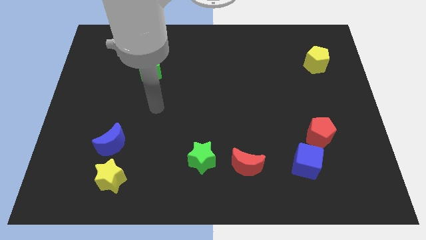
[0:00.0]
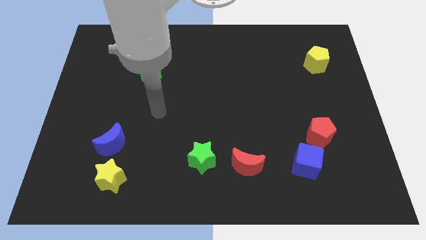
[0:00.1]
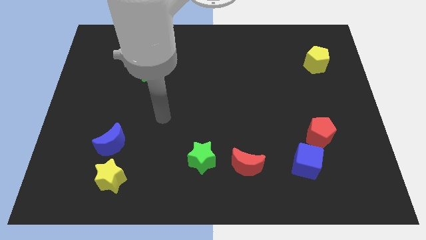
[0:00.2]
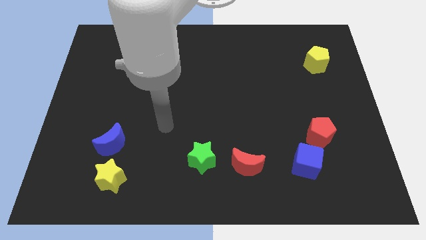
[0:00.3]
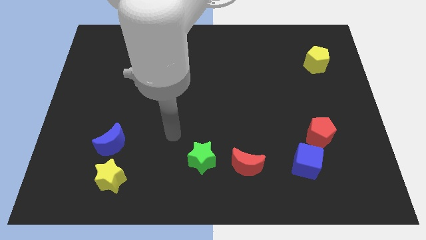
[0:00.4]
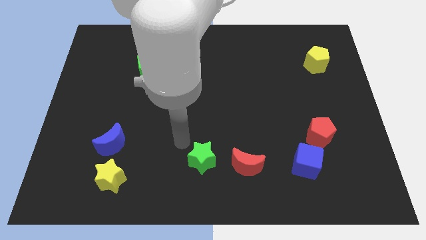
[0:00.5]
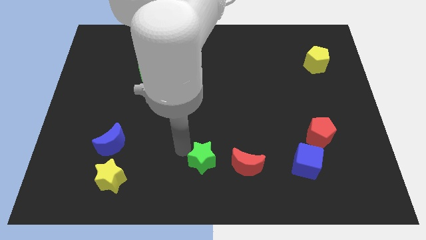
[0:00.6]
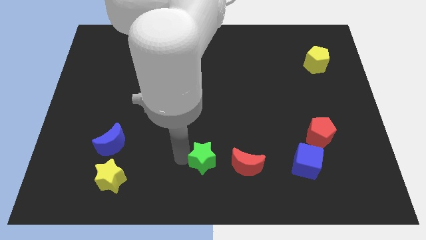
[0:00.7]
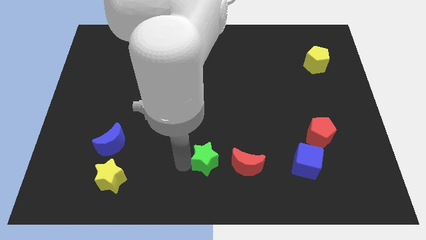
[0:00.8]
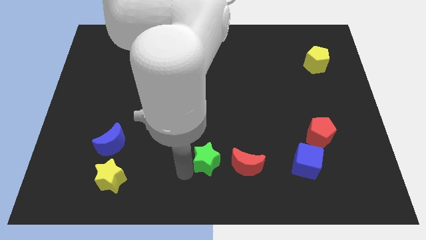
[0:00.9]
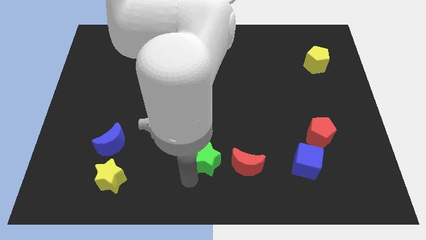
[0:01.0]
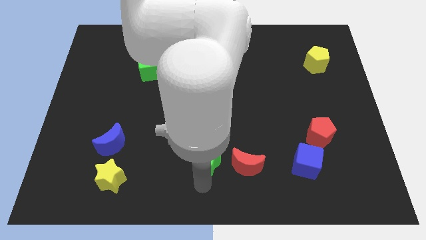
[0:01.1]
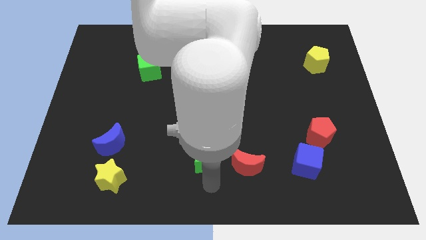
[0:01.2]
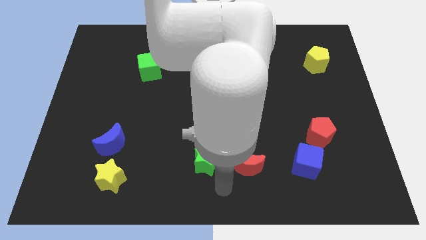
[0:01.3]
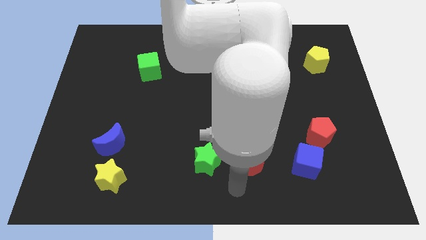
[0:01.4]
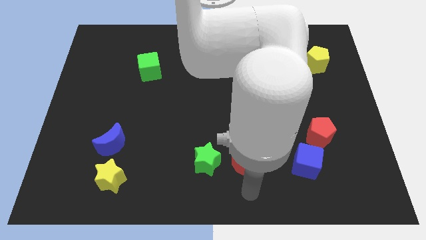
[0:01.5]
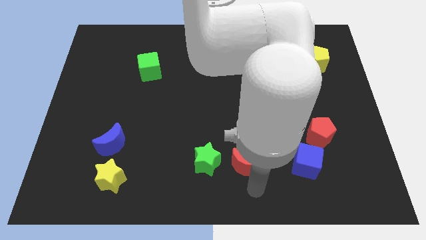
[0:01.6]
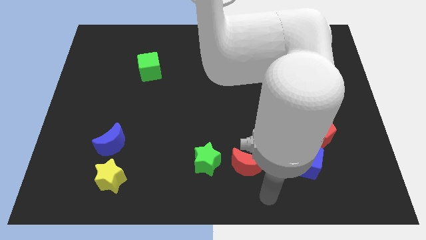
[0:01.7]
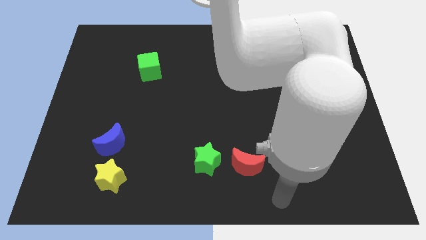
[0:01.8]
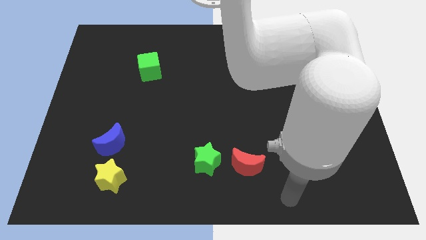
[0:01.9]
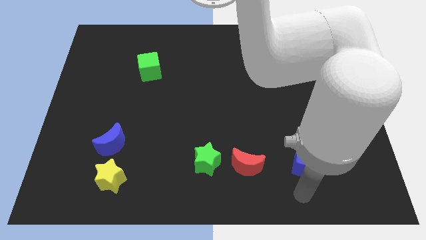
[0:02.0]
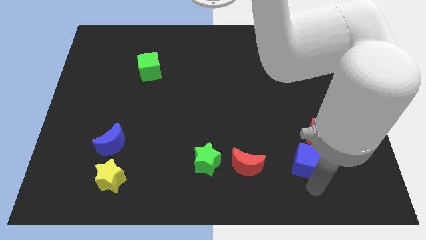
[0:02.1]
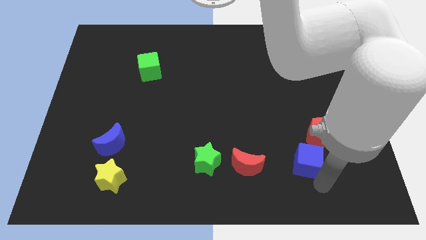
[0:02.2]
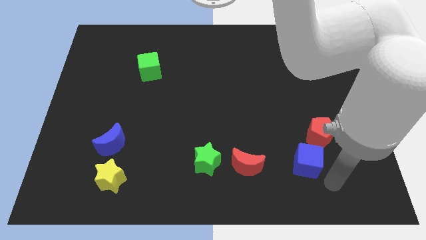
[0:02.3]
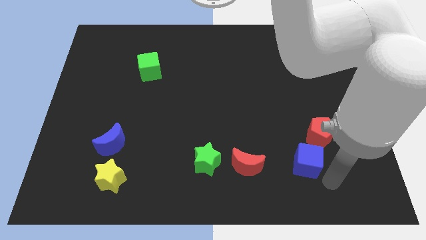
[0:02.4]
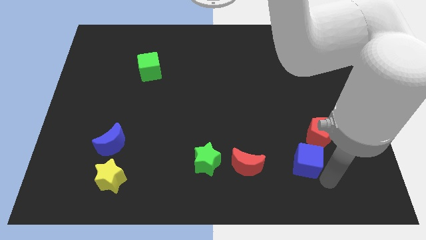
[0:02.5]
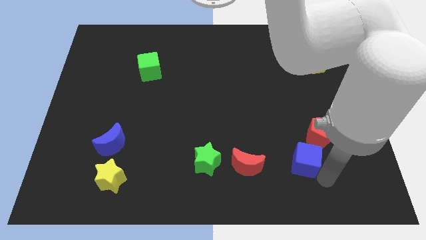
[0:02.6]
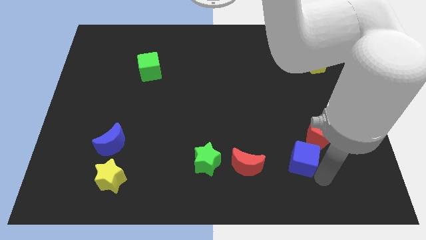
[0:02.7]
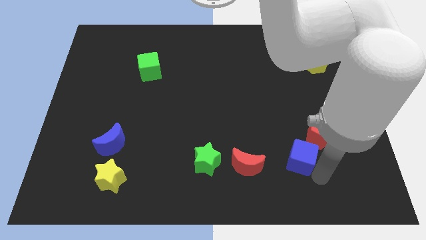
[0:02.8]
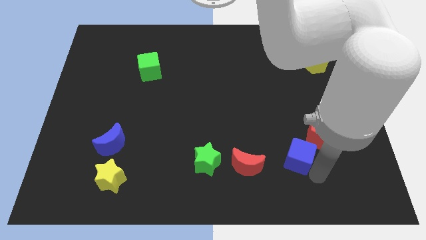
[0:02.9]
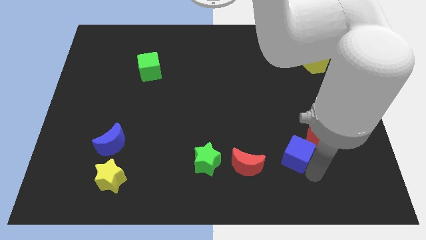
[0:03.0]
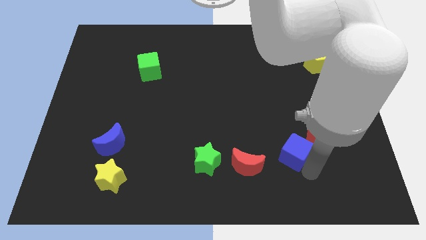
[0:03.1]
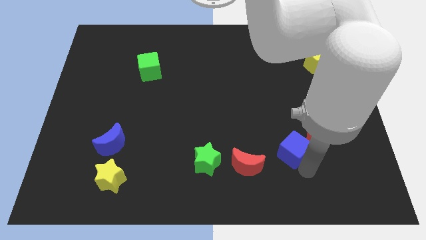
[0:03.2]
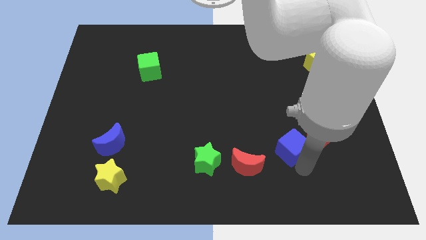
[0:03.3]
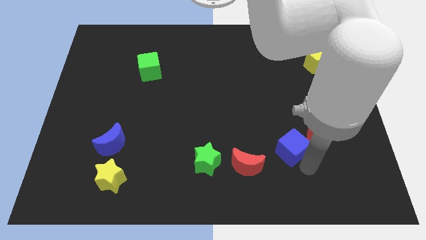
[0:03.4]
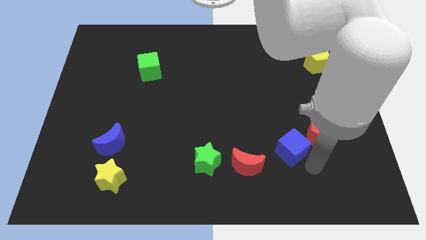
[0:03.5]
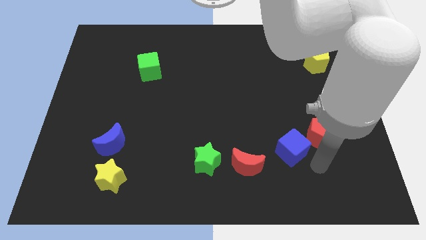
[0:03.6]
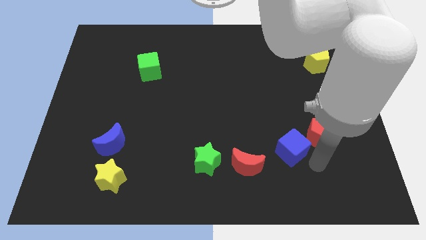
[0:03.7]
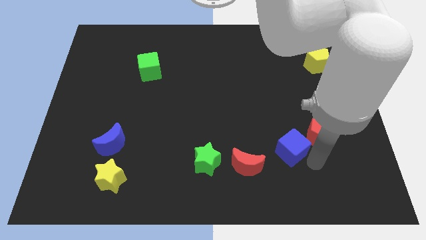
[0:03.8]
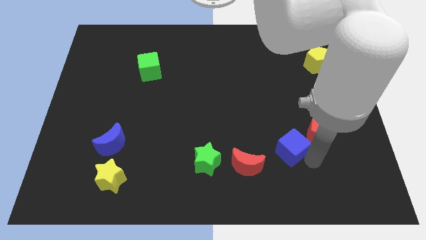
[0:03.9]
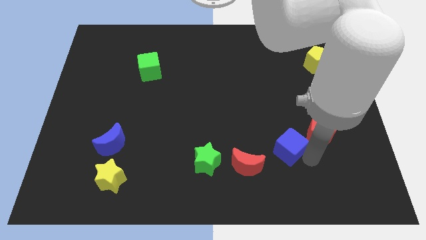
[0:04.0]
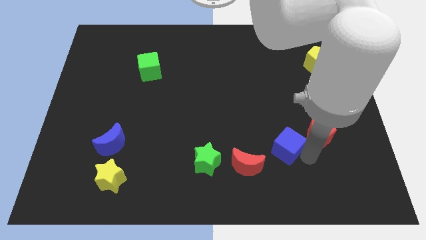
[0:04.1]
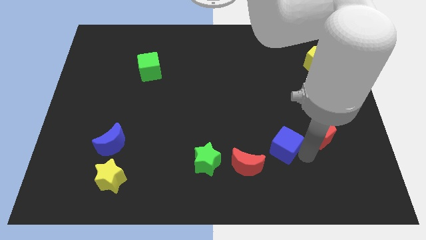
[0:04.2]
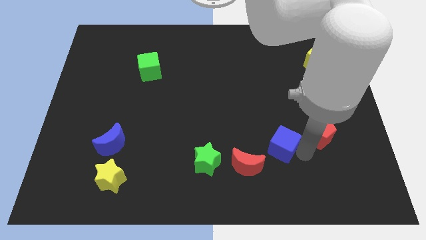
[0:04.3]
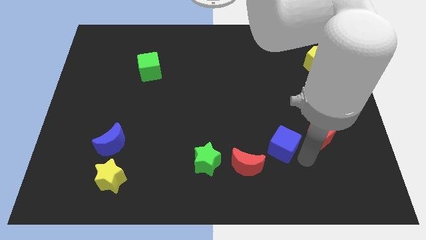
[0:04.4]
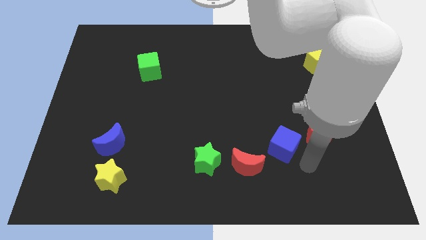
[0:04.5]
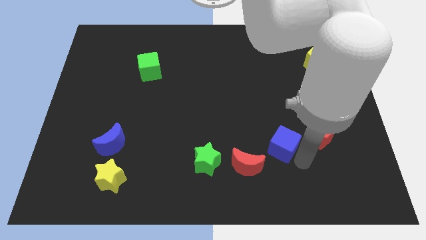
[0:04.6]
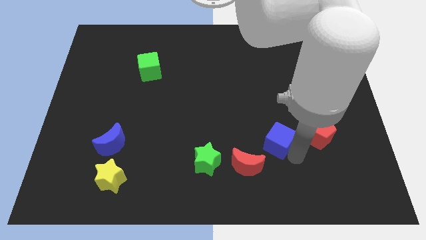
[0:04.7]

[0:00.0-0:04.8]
push the blue cube a little diagonally upwards and left

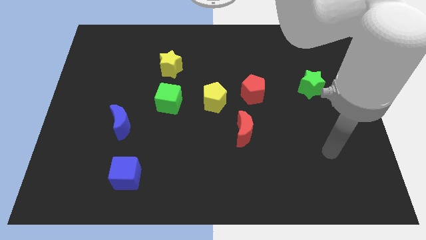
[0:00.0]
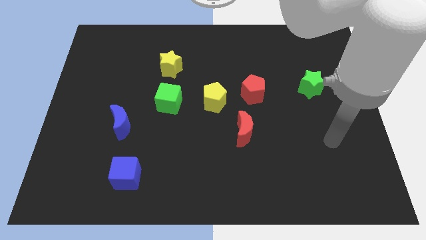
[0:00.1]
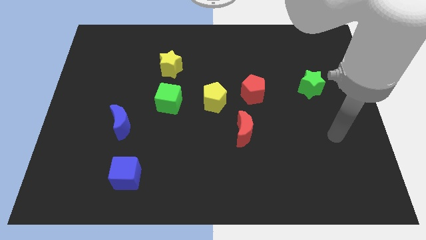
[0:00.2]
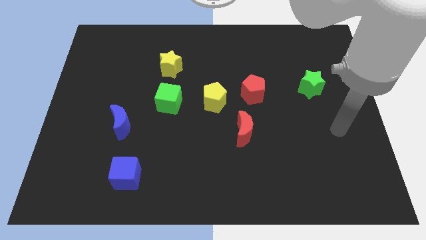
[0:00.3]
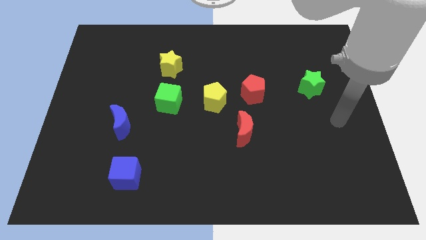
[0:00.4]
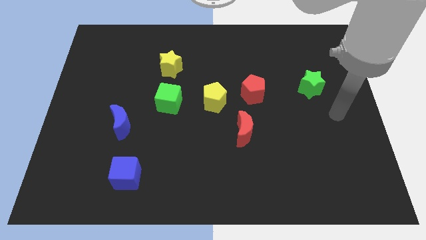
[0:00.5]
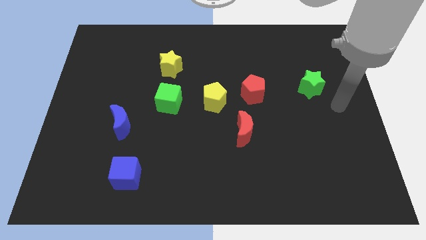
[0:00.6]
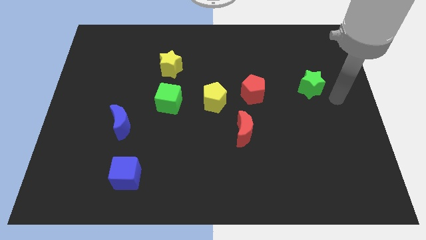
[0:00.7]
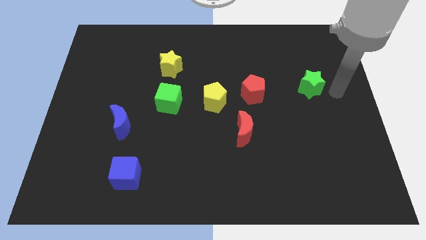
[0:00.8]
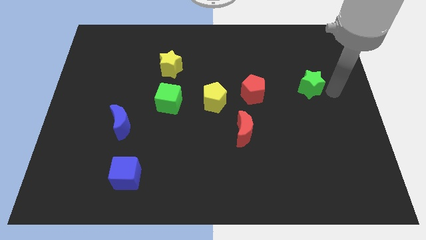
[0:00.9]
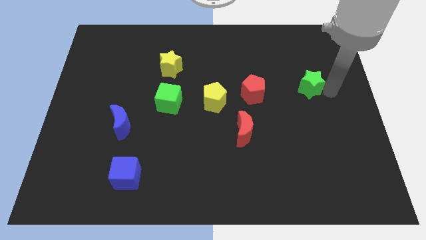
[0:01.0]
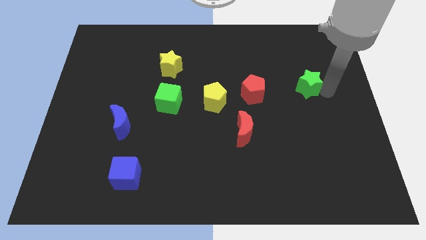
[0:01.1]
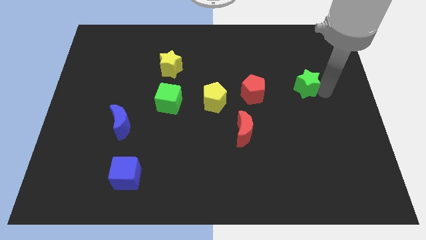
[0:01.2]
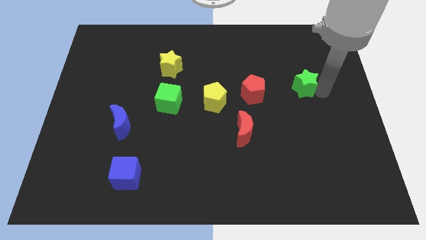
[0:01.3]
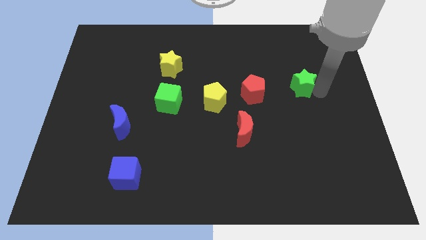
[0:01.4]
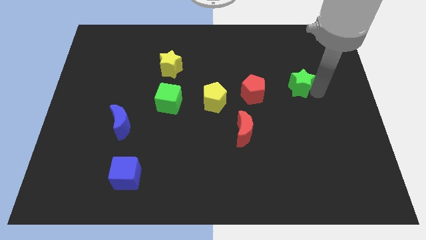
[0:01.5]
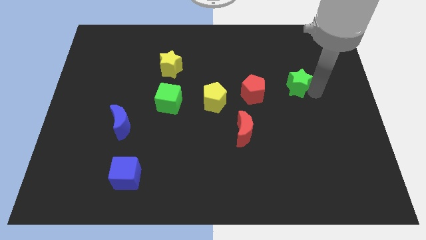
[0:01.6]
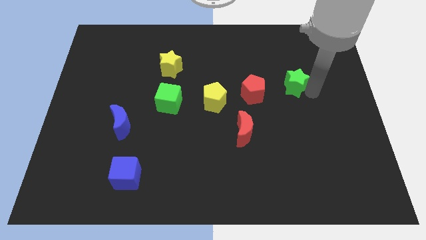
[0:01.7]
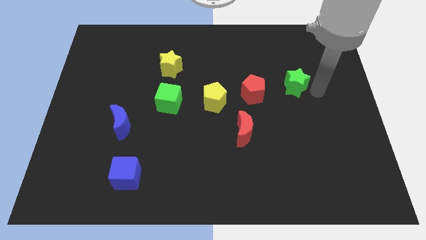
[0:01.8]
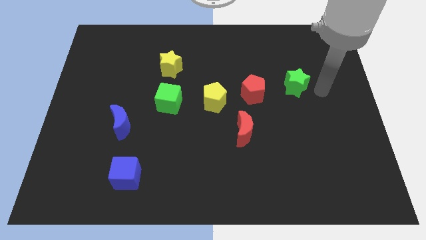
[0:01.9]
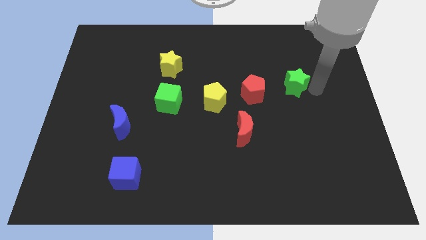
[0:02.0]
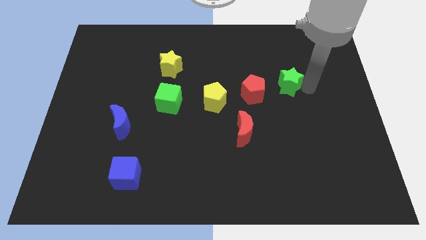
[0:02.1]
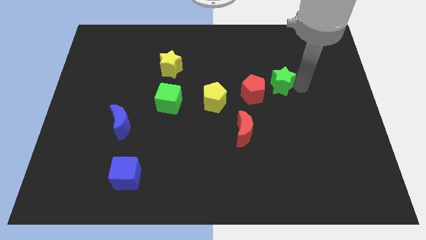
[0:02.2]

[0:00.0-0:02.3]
push the green star left a bit

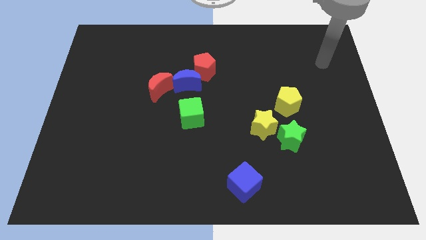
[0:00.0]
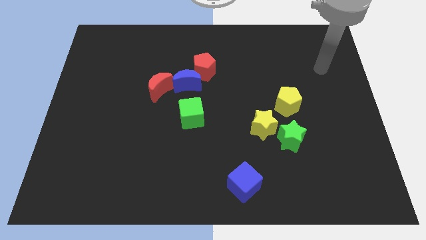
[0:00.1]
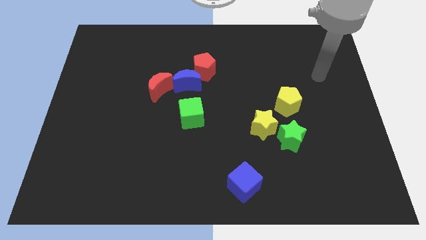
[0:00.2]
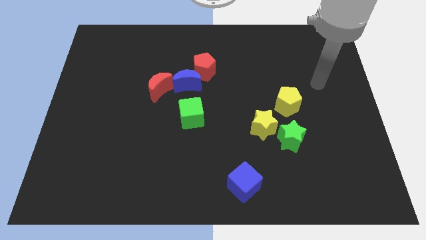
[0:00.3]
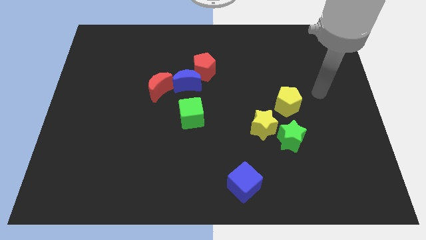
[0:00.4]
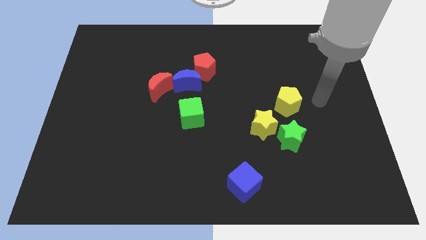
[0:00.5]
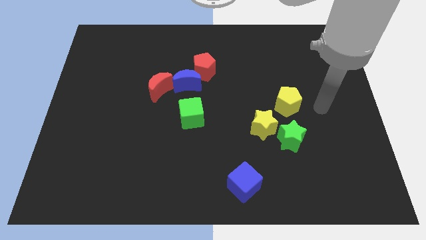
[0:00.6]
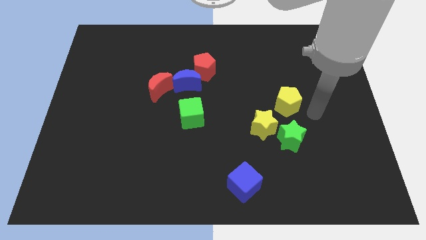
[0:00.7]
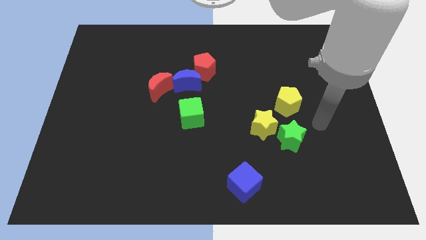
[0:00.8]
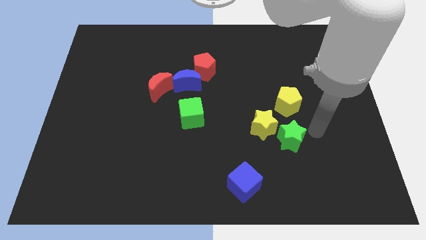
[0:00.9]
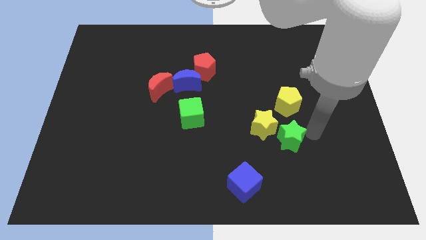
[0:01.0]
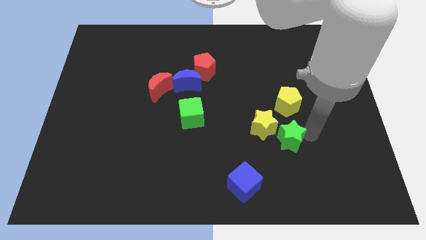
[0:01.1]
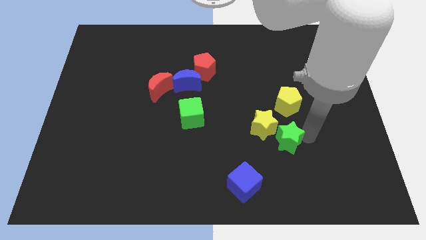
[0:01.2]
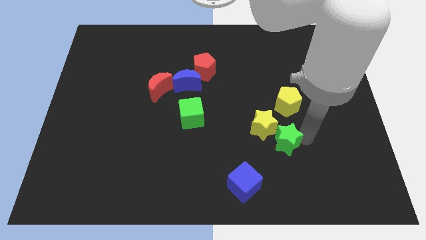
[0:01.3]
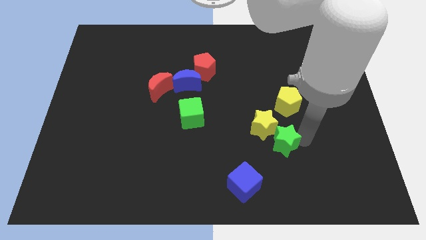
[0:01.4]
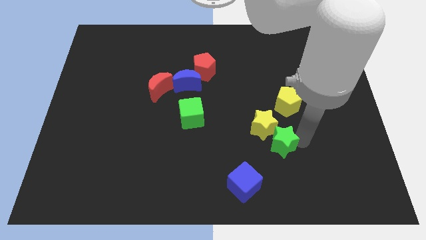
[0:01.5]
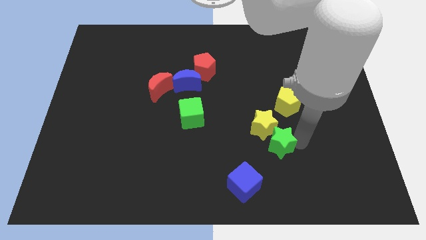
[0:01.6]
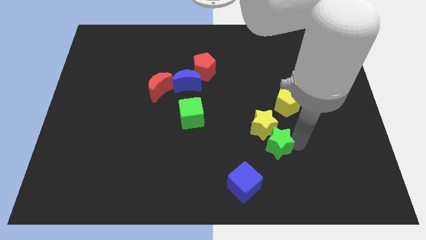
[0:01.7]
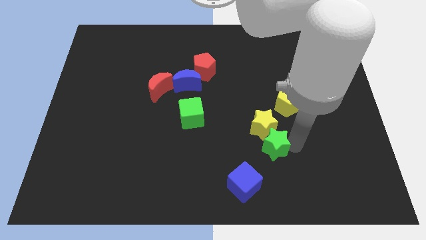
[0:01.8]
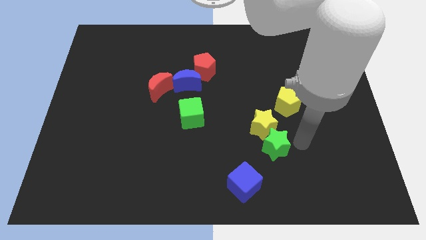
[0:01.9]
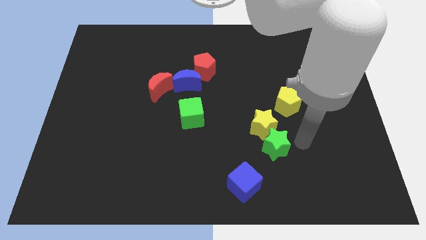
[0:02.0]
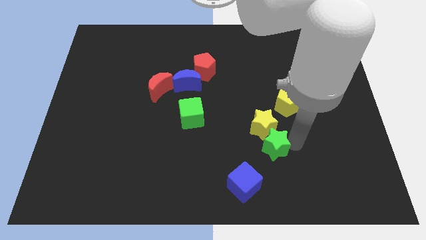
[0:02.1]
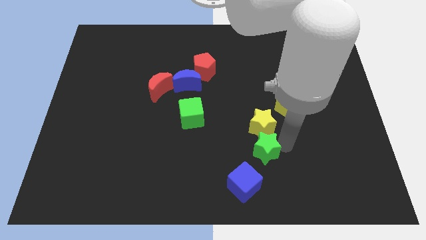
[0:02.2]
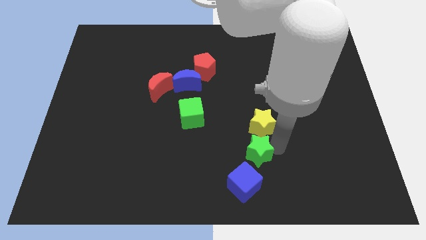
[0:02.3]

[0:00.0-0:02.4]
slide the green star left a little bit
